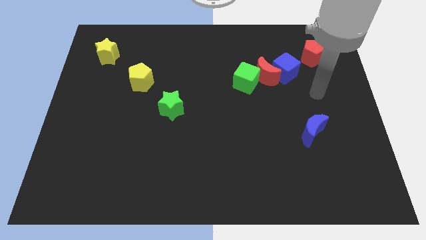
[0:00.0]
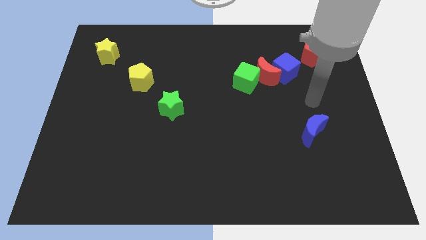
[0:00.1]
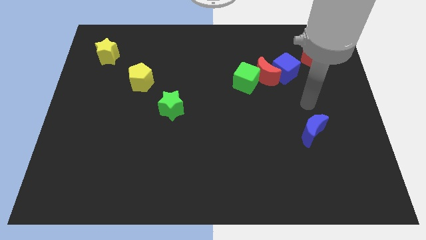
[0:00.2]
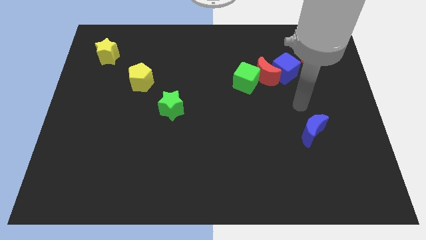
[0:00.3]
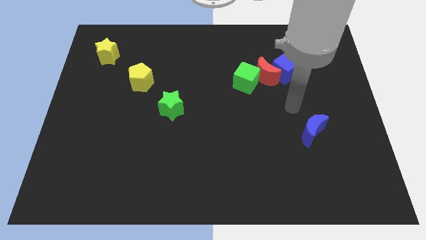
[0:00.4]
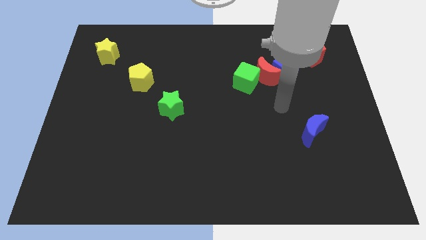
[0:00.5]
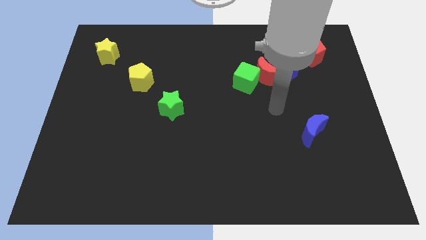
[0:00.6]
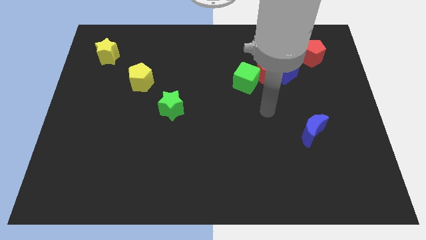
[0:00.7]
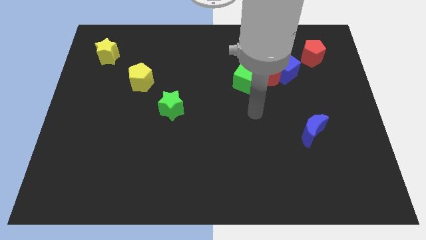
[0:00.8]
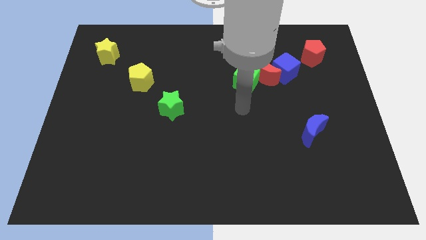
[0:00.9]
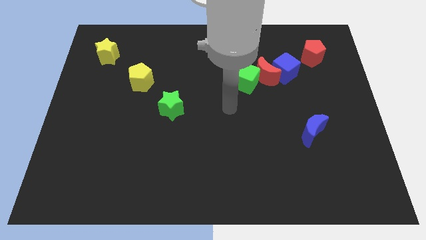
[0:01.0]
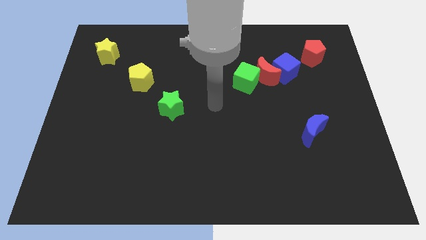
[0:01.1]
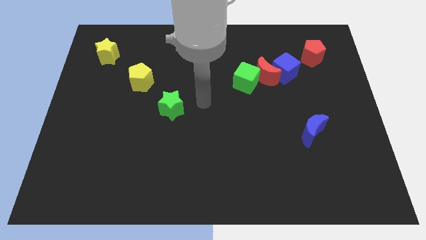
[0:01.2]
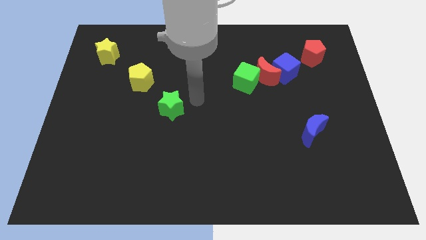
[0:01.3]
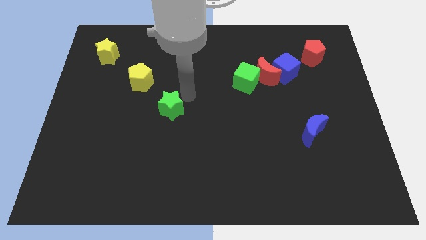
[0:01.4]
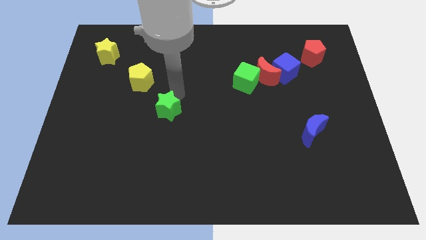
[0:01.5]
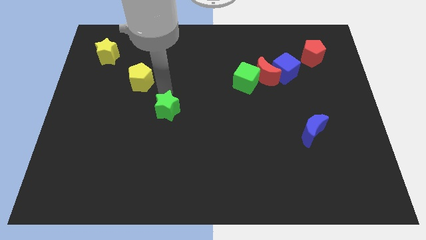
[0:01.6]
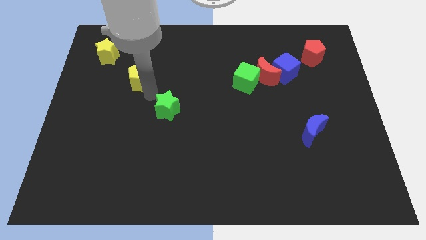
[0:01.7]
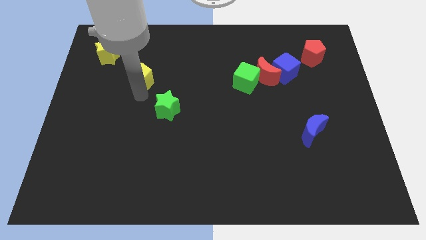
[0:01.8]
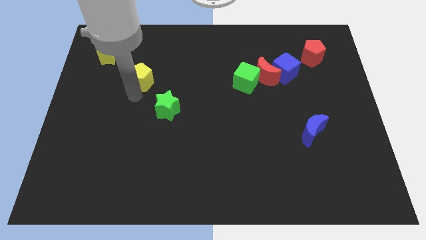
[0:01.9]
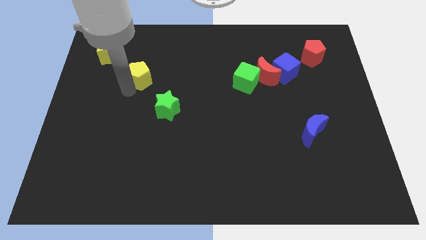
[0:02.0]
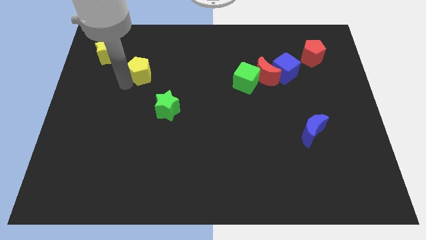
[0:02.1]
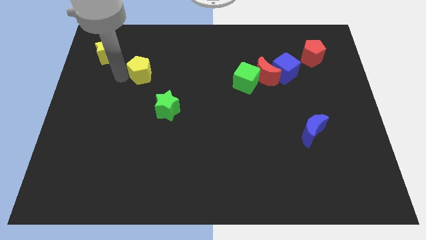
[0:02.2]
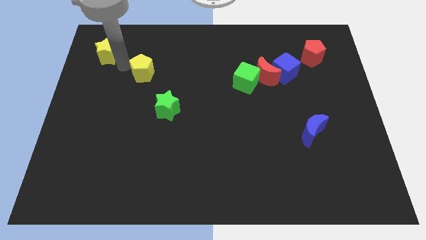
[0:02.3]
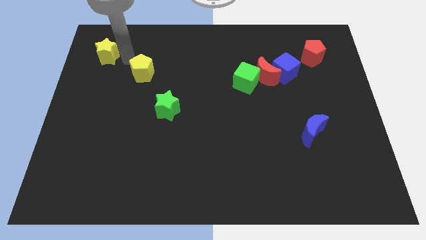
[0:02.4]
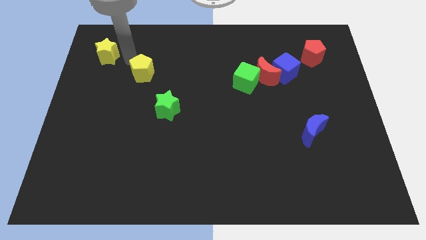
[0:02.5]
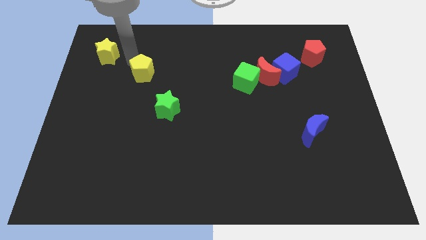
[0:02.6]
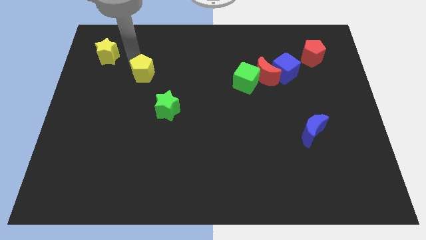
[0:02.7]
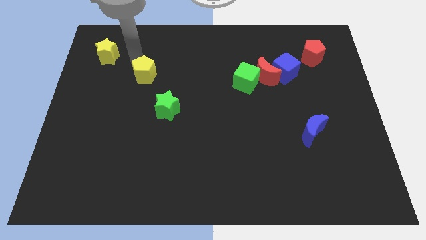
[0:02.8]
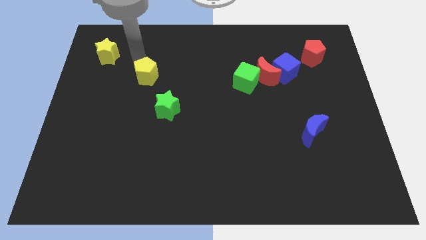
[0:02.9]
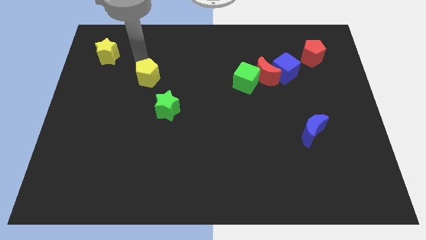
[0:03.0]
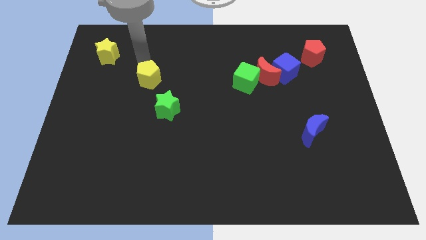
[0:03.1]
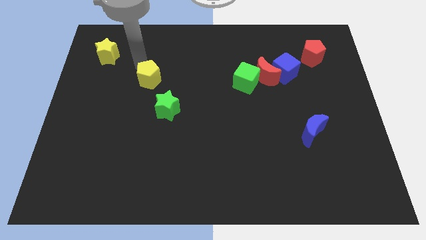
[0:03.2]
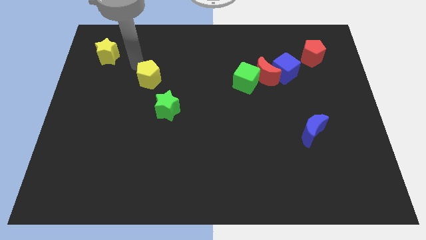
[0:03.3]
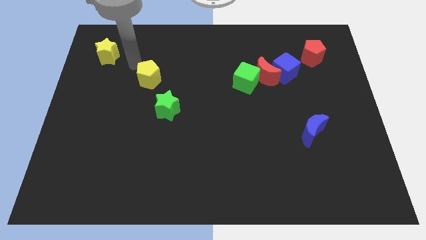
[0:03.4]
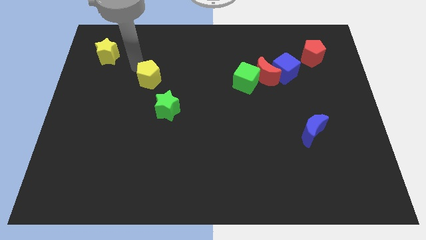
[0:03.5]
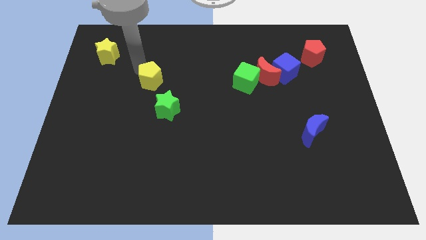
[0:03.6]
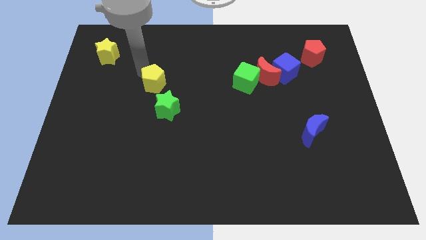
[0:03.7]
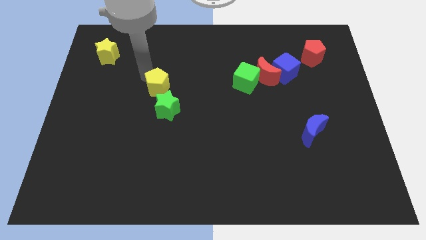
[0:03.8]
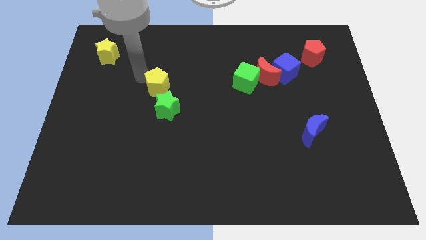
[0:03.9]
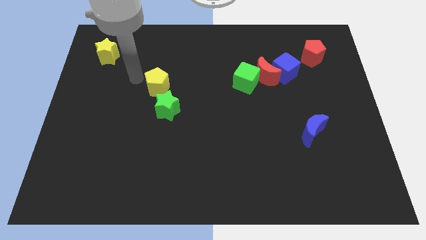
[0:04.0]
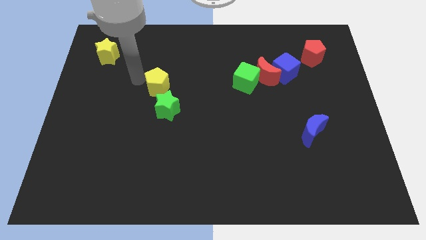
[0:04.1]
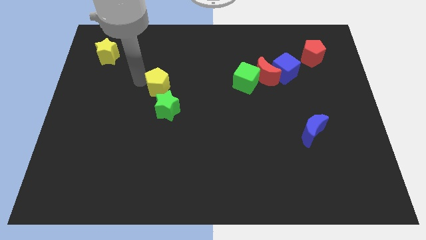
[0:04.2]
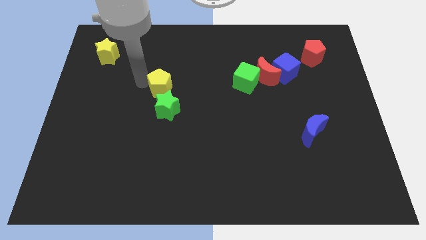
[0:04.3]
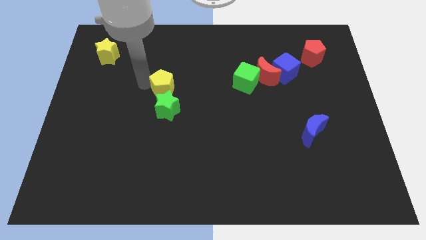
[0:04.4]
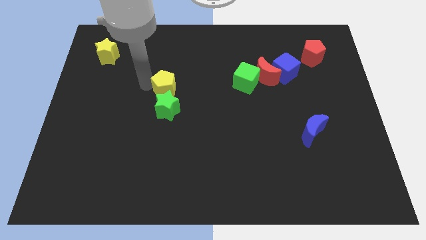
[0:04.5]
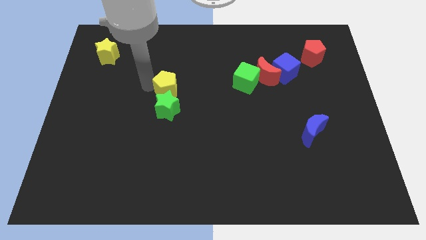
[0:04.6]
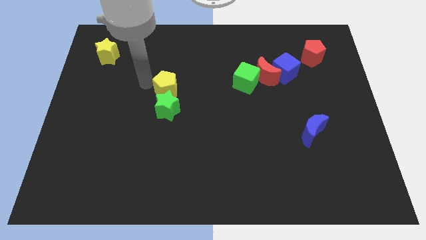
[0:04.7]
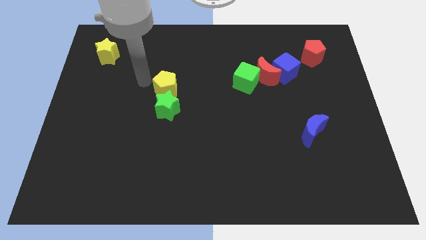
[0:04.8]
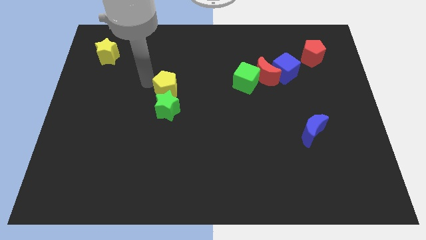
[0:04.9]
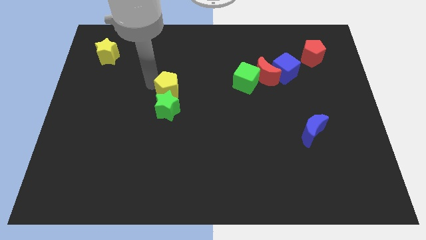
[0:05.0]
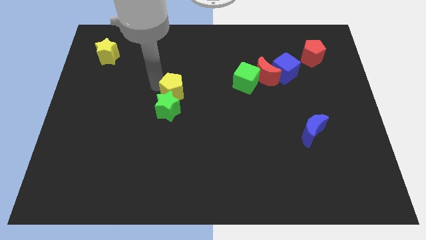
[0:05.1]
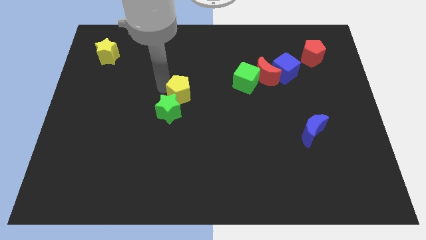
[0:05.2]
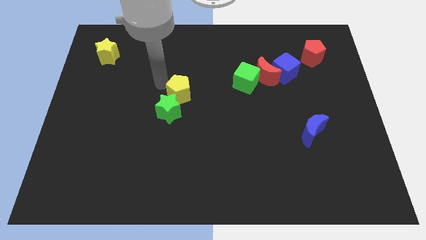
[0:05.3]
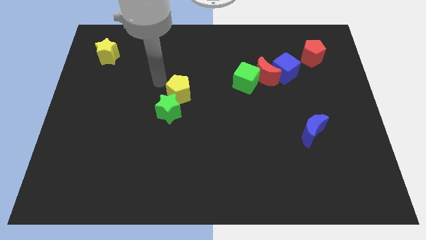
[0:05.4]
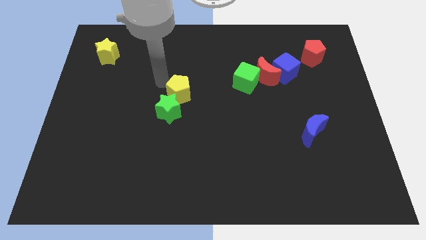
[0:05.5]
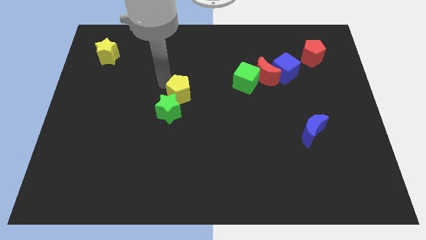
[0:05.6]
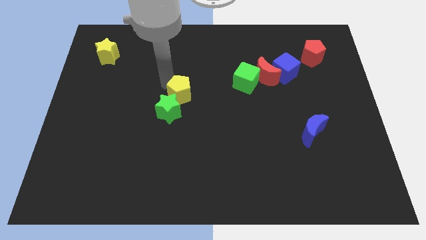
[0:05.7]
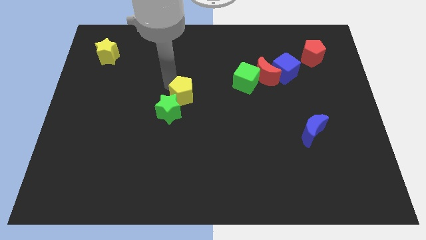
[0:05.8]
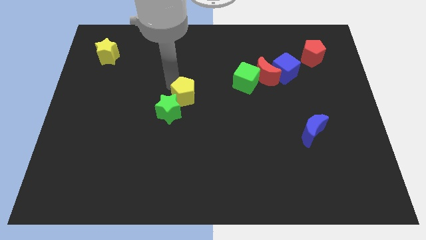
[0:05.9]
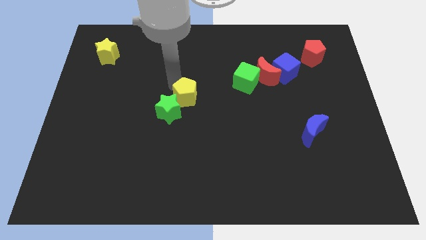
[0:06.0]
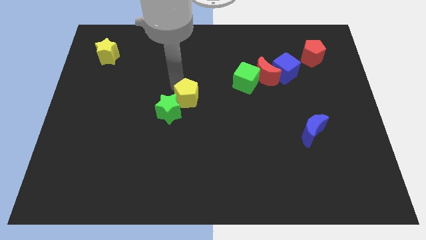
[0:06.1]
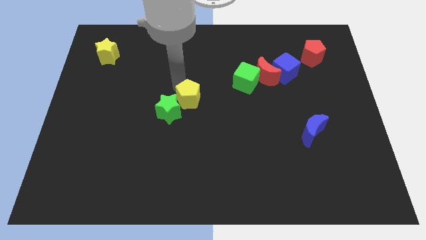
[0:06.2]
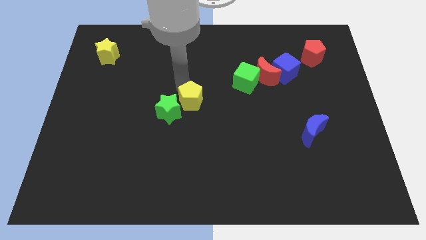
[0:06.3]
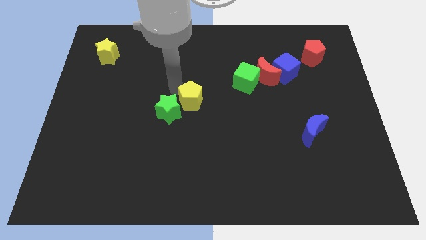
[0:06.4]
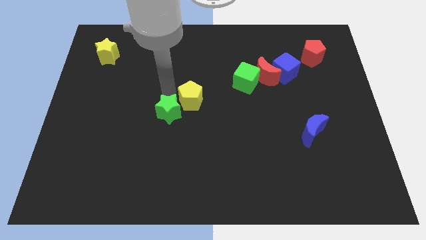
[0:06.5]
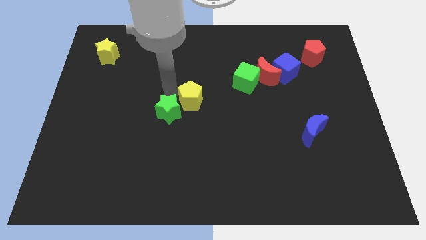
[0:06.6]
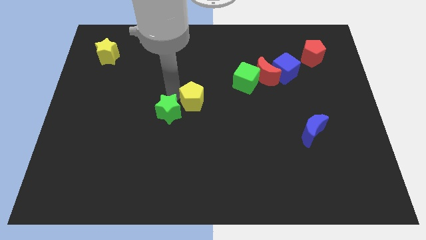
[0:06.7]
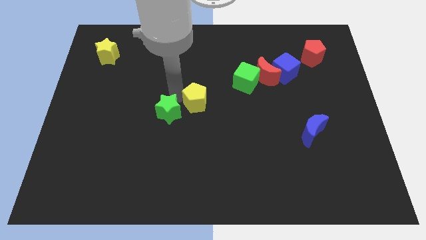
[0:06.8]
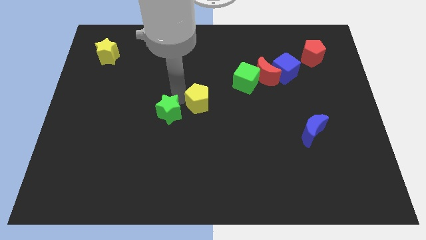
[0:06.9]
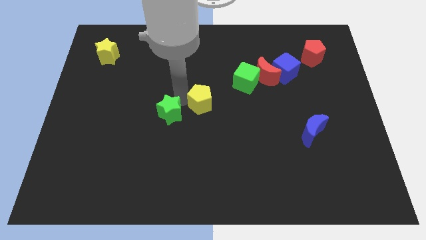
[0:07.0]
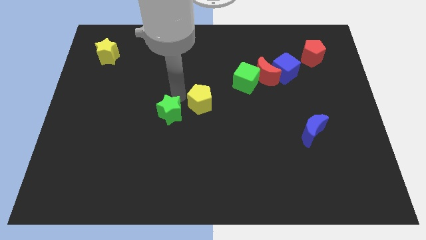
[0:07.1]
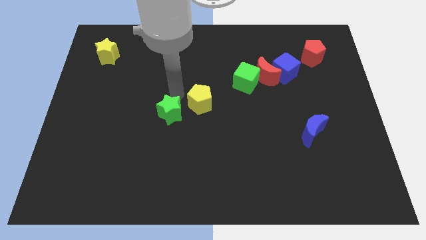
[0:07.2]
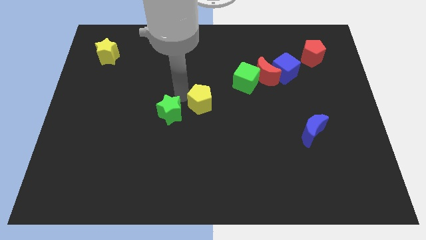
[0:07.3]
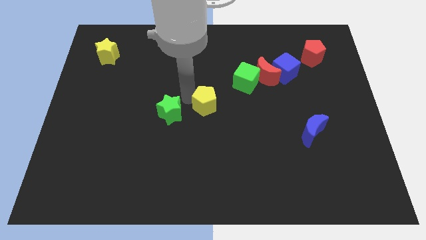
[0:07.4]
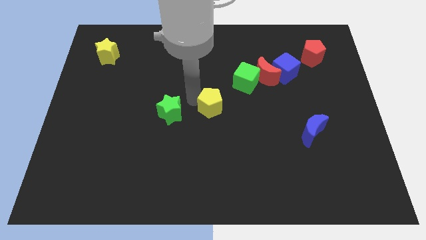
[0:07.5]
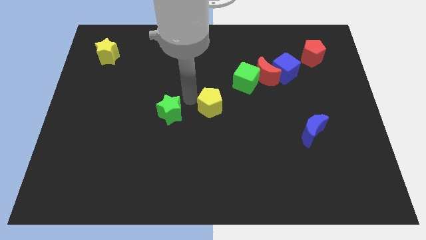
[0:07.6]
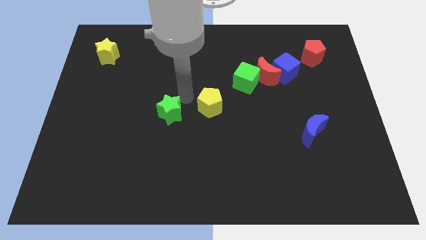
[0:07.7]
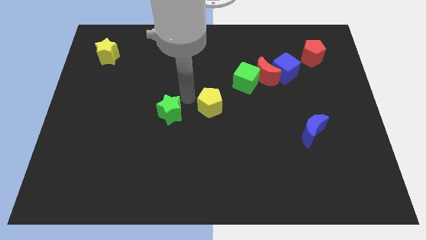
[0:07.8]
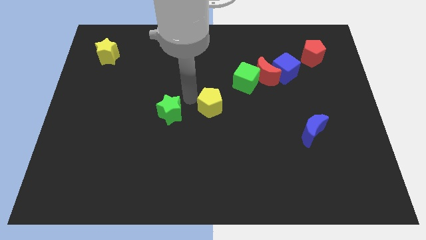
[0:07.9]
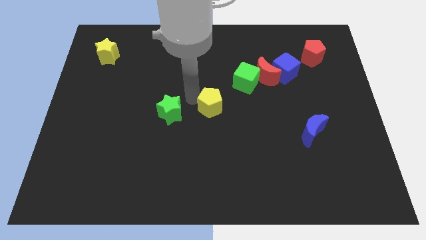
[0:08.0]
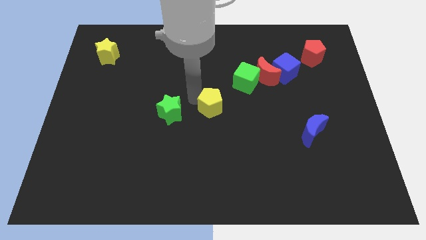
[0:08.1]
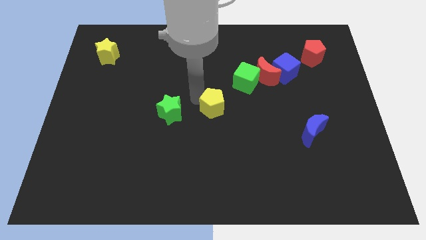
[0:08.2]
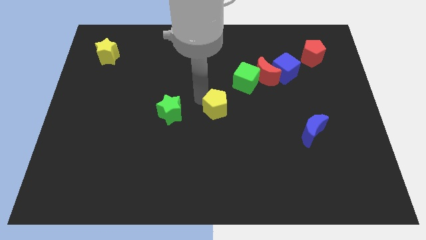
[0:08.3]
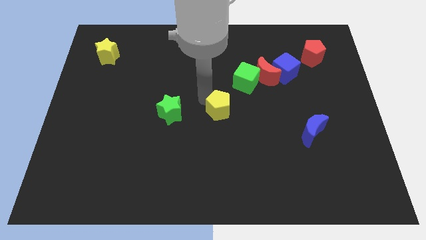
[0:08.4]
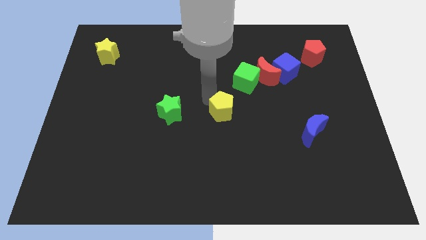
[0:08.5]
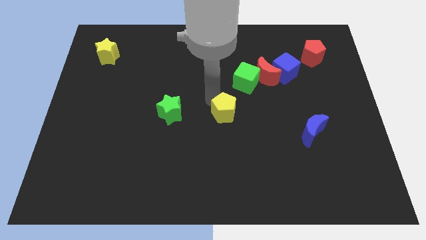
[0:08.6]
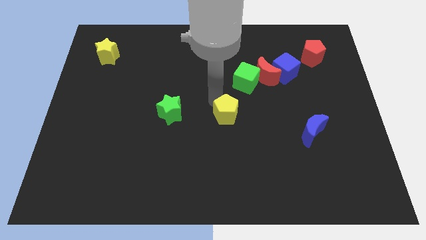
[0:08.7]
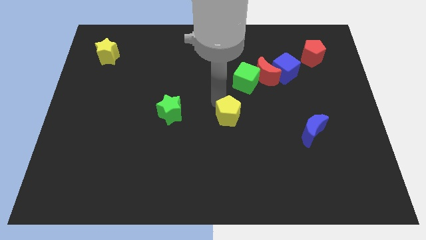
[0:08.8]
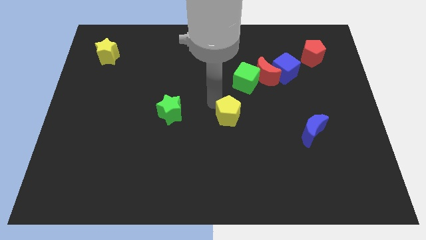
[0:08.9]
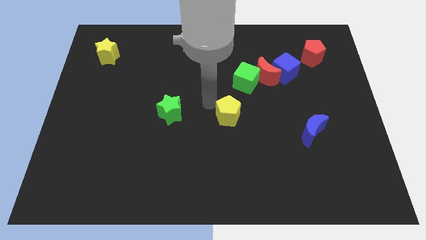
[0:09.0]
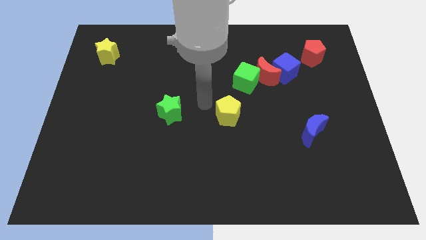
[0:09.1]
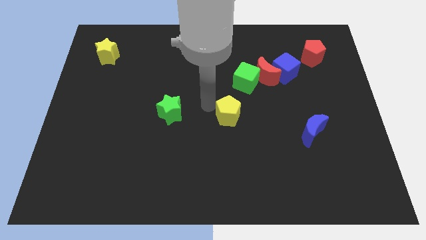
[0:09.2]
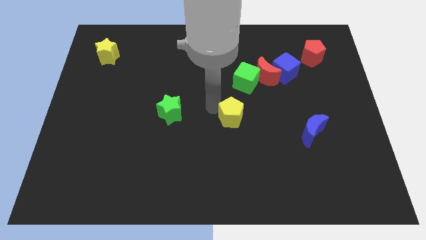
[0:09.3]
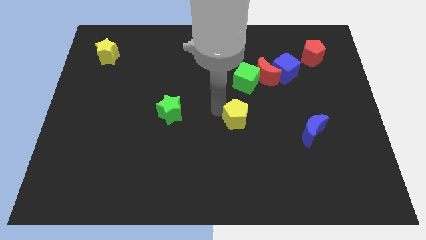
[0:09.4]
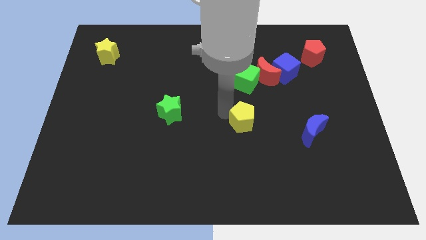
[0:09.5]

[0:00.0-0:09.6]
slide the yellow pentagon to the left of the blue moon
